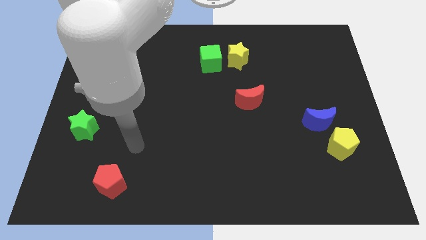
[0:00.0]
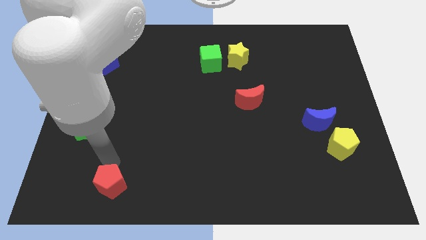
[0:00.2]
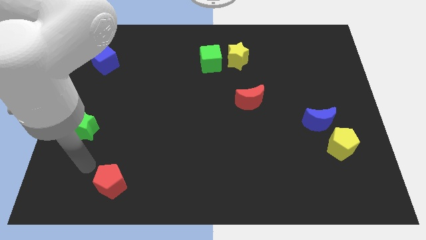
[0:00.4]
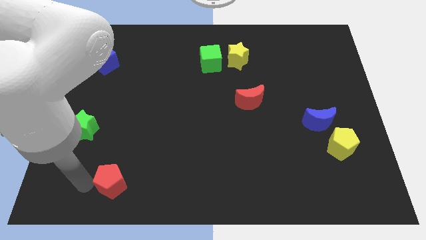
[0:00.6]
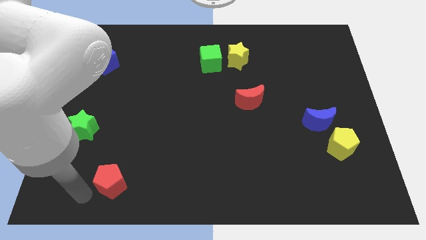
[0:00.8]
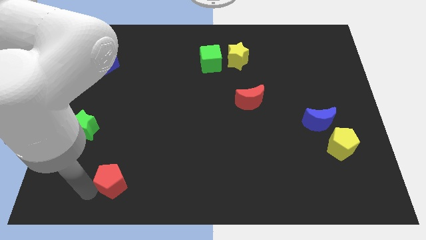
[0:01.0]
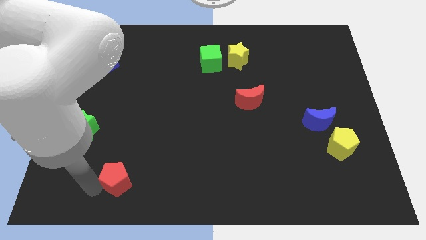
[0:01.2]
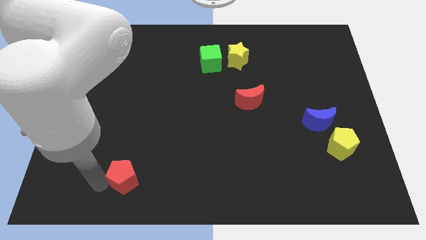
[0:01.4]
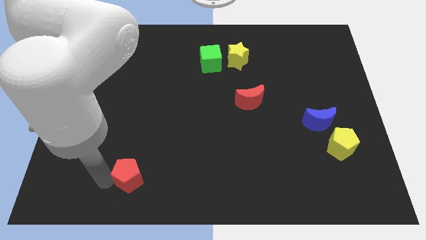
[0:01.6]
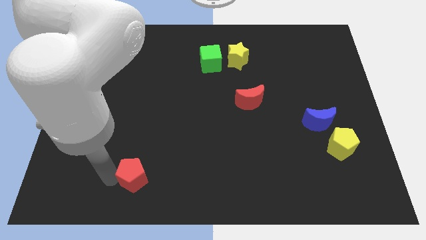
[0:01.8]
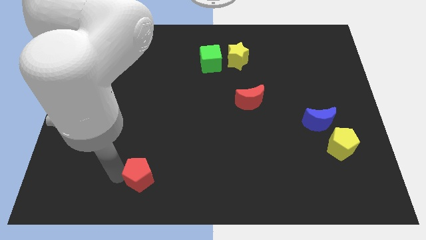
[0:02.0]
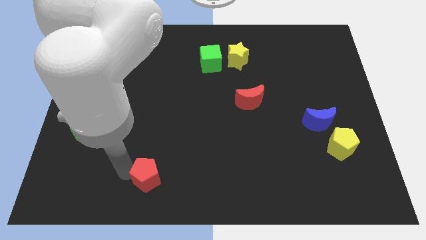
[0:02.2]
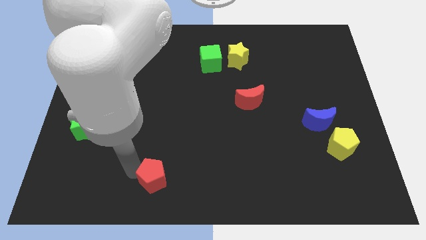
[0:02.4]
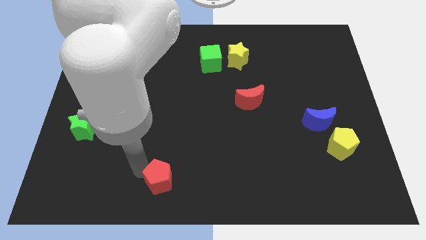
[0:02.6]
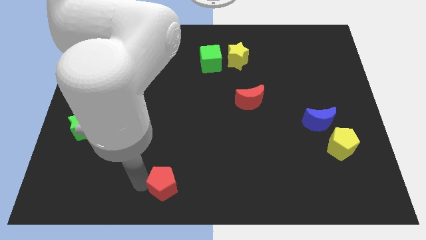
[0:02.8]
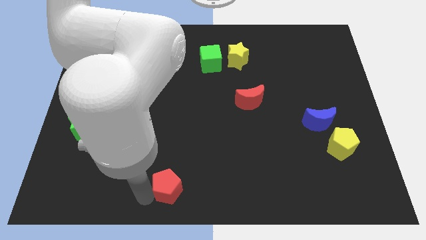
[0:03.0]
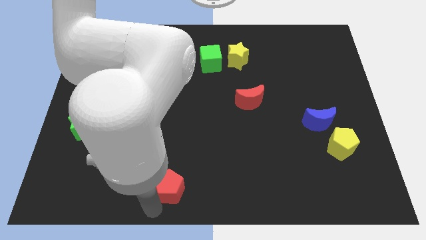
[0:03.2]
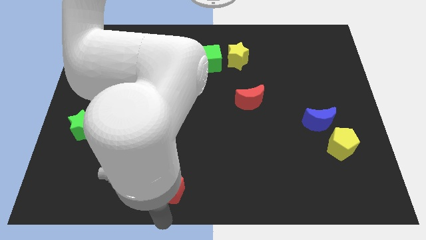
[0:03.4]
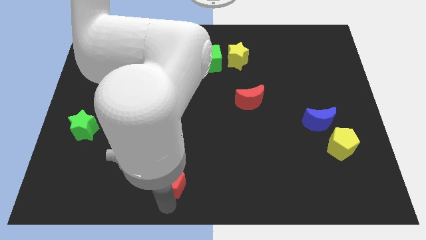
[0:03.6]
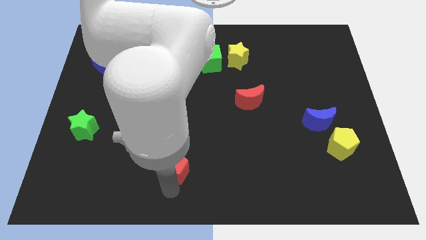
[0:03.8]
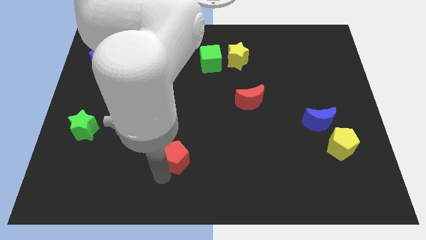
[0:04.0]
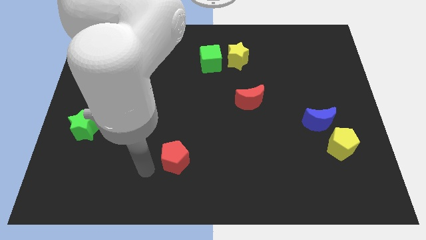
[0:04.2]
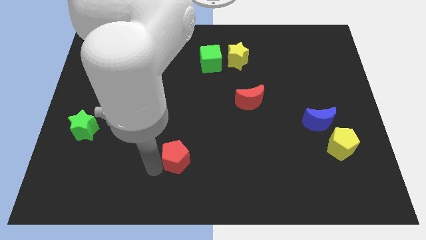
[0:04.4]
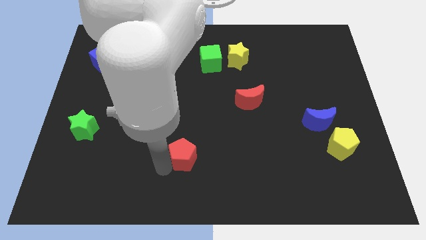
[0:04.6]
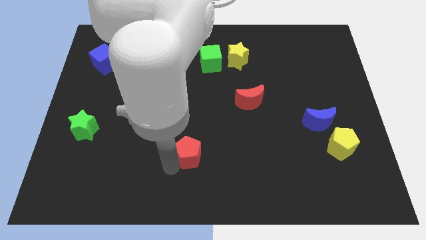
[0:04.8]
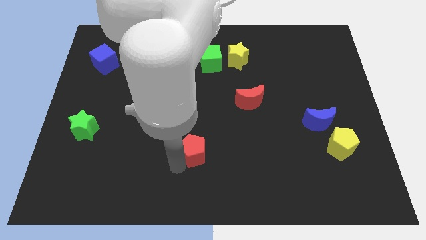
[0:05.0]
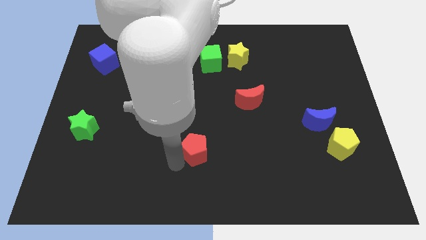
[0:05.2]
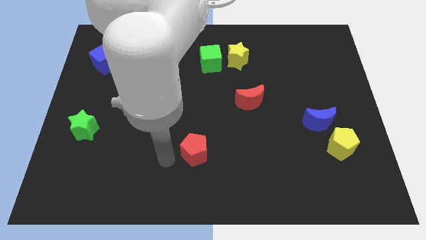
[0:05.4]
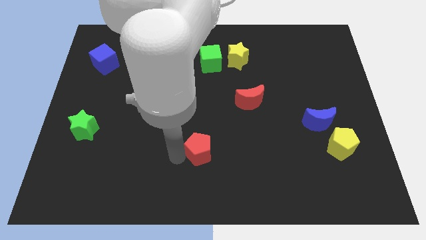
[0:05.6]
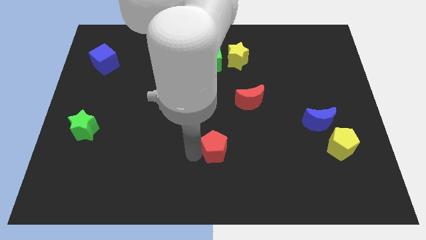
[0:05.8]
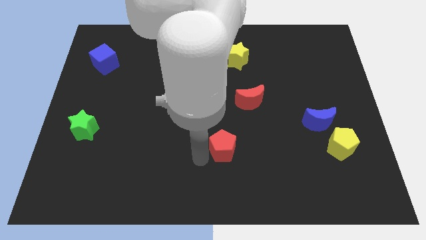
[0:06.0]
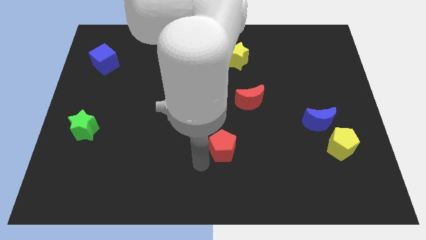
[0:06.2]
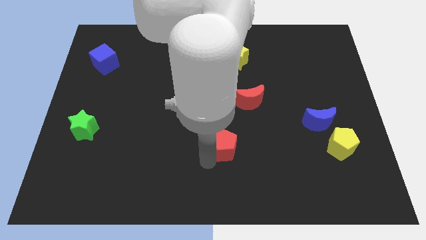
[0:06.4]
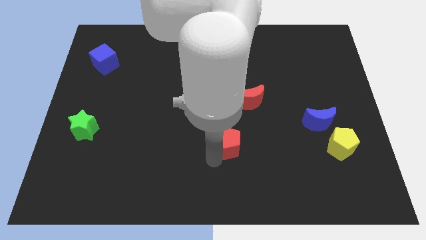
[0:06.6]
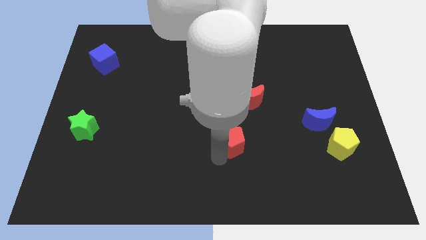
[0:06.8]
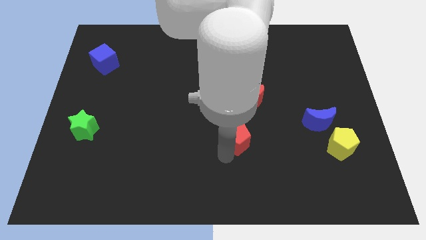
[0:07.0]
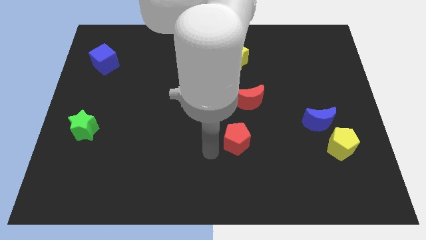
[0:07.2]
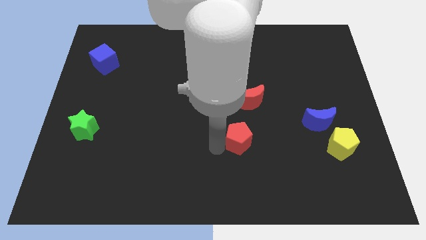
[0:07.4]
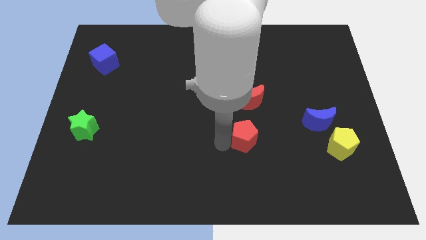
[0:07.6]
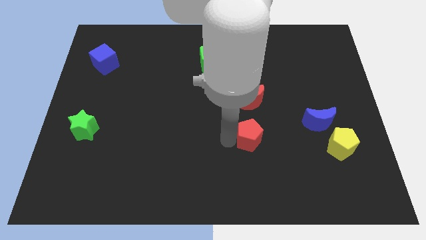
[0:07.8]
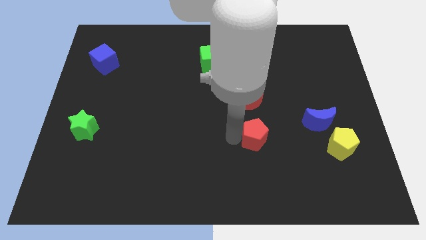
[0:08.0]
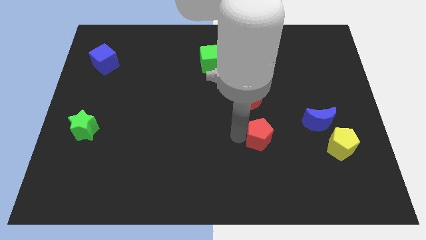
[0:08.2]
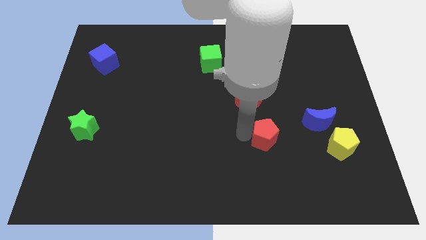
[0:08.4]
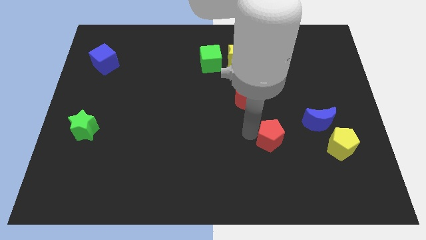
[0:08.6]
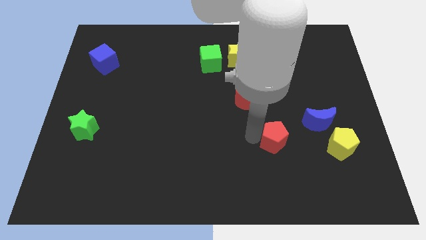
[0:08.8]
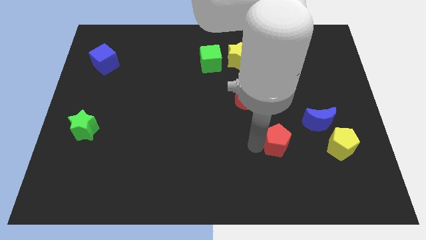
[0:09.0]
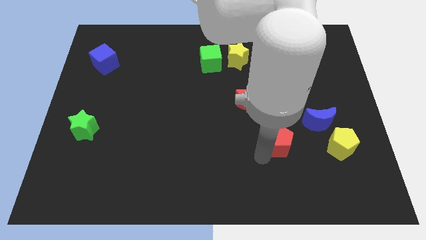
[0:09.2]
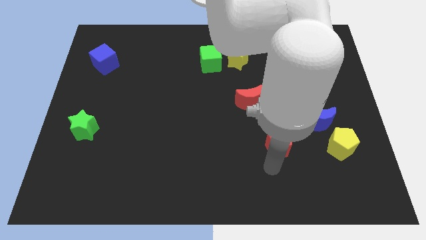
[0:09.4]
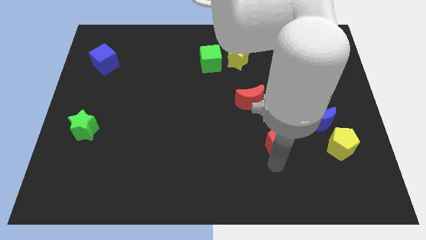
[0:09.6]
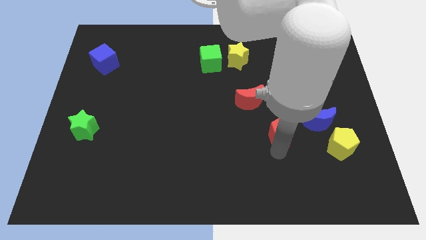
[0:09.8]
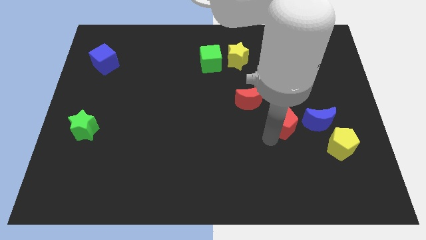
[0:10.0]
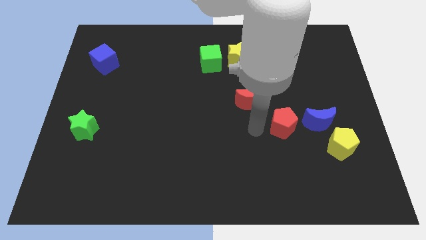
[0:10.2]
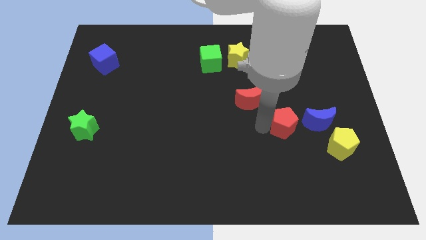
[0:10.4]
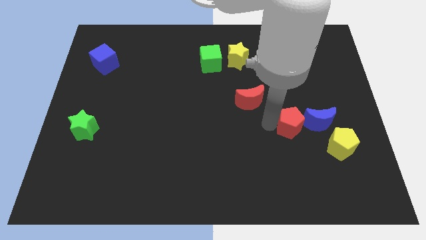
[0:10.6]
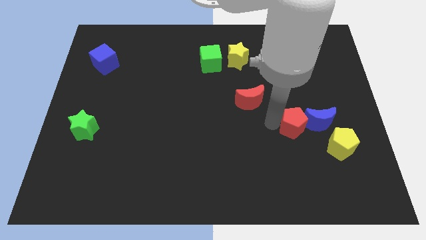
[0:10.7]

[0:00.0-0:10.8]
push the red pentagon next to the blue moon

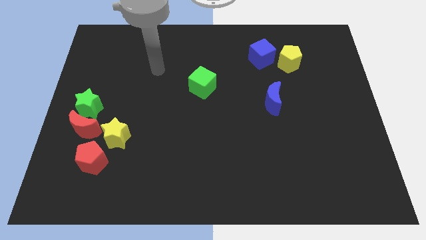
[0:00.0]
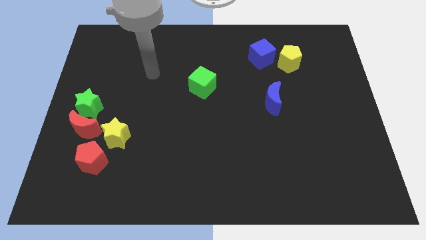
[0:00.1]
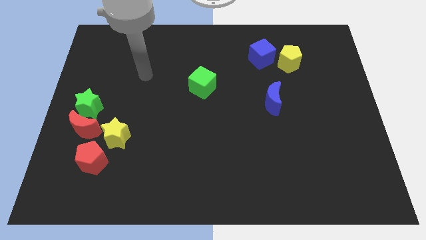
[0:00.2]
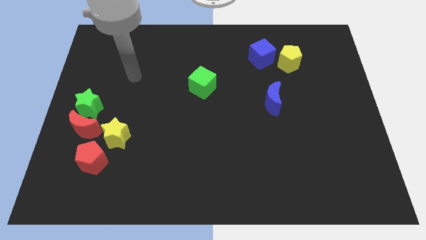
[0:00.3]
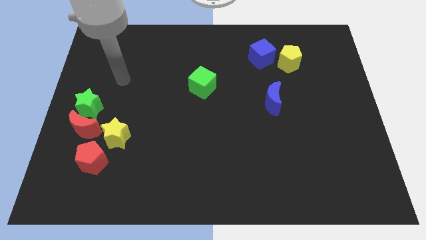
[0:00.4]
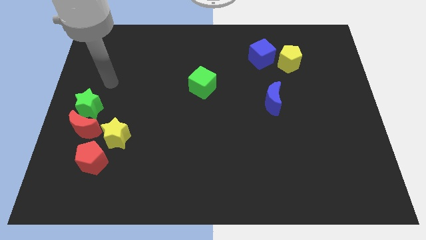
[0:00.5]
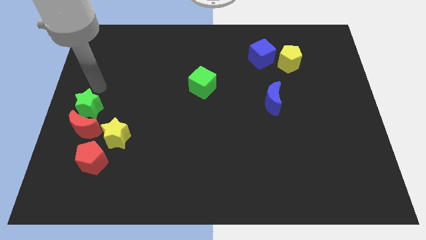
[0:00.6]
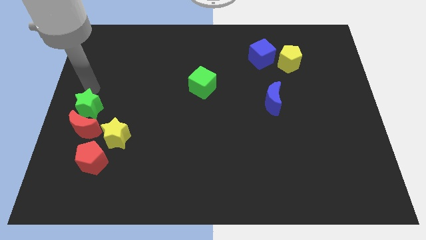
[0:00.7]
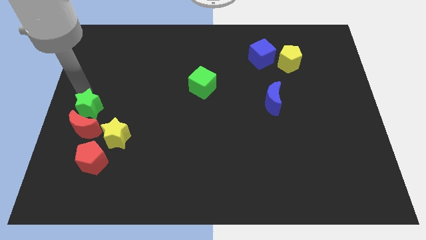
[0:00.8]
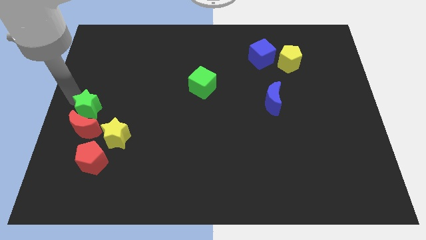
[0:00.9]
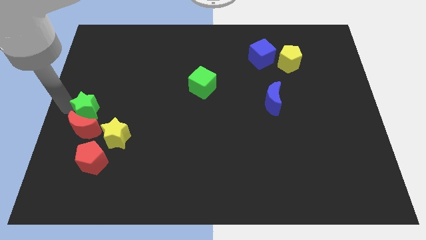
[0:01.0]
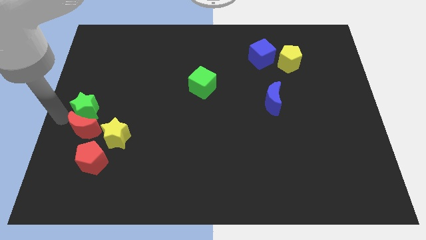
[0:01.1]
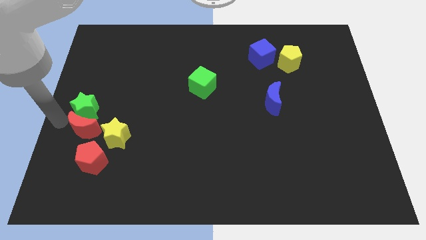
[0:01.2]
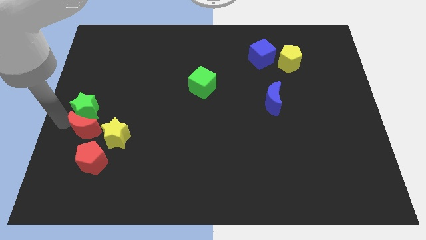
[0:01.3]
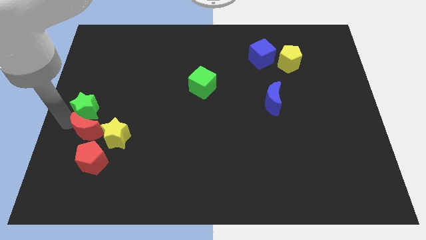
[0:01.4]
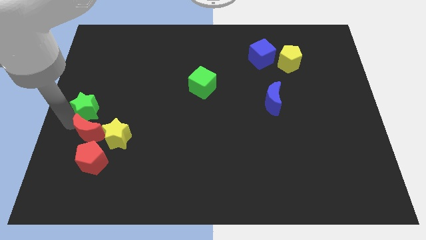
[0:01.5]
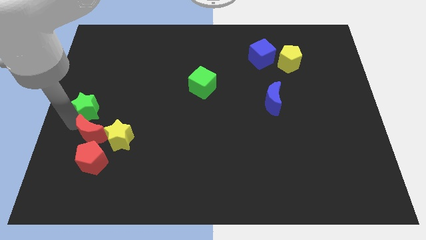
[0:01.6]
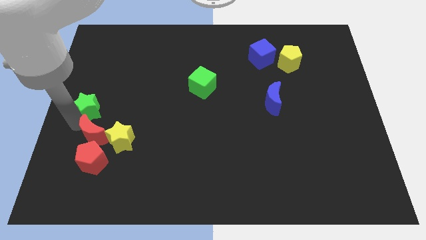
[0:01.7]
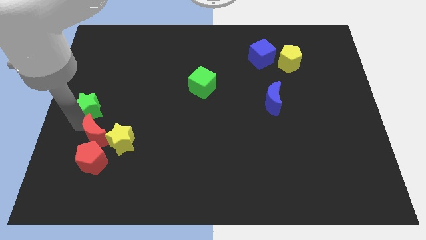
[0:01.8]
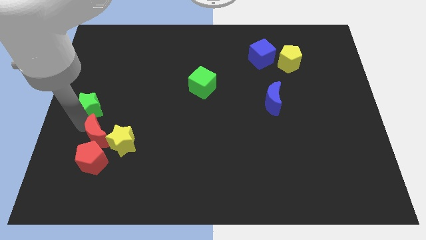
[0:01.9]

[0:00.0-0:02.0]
move the red moon to the yellow star

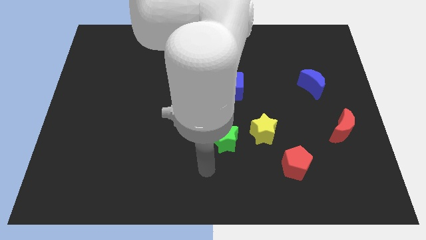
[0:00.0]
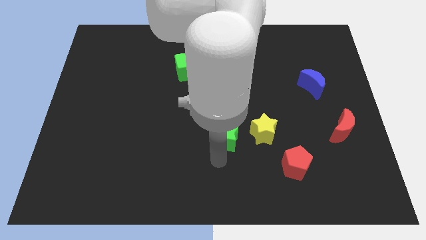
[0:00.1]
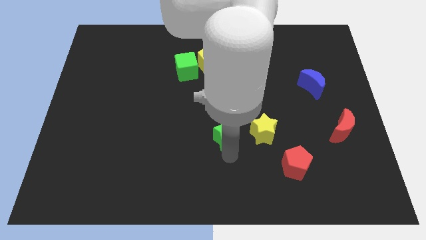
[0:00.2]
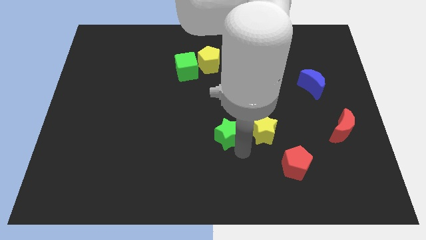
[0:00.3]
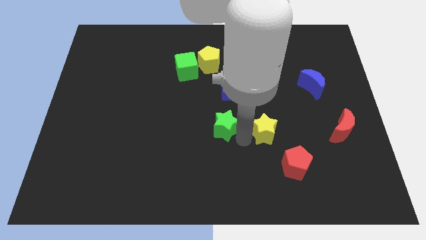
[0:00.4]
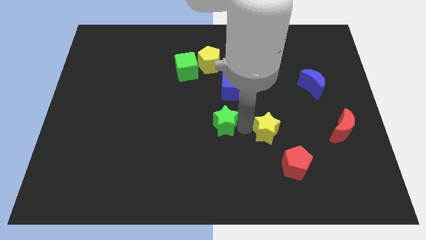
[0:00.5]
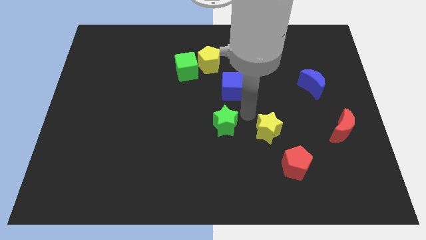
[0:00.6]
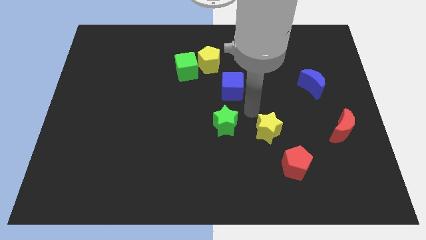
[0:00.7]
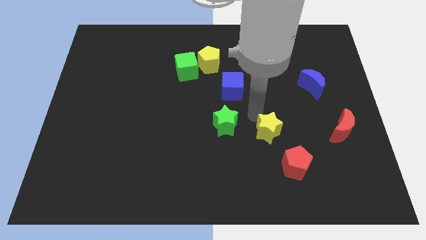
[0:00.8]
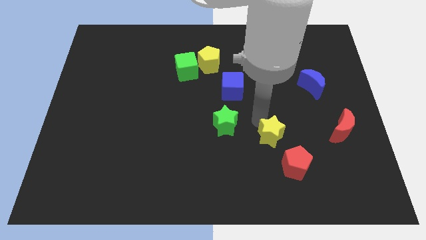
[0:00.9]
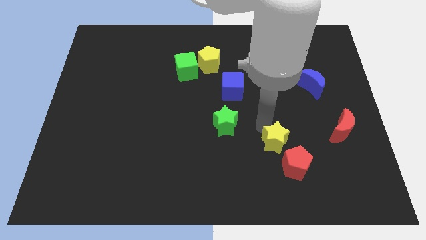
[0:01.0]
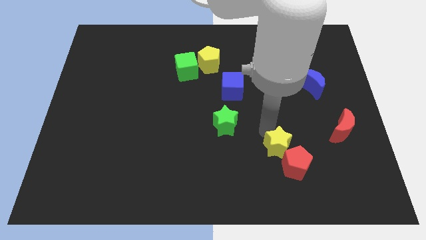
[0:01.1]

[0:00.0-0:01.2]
slide the yellow star close to the red pentagon
